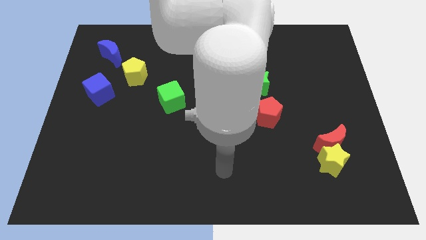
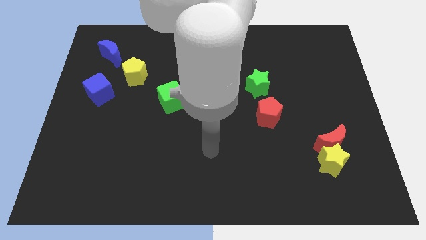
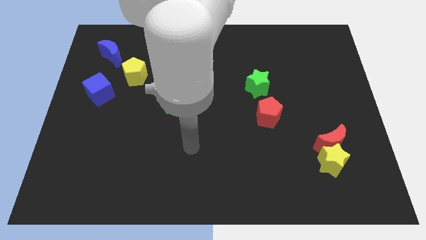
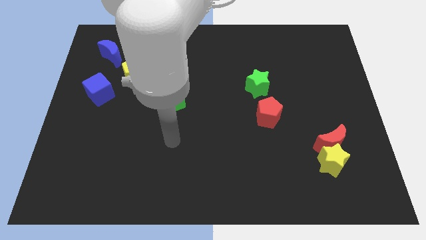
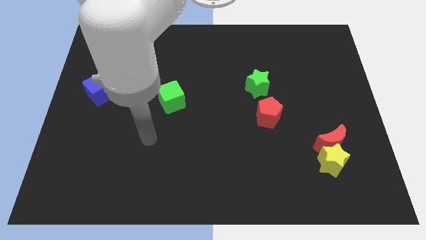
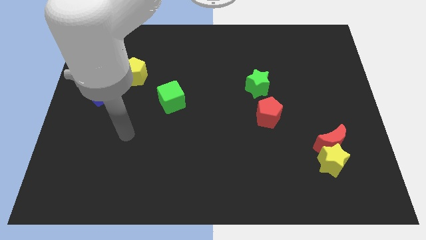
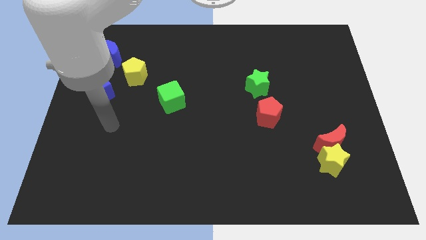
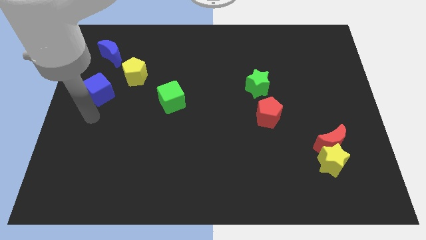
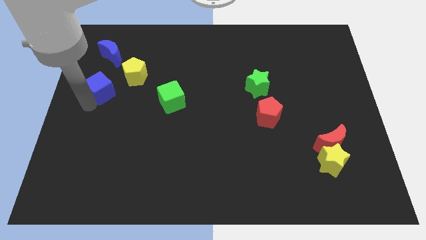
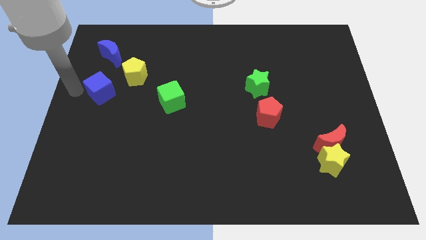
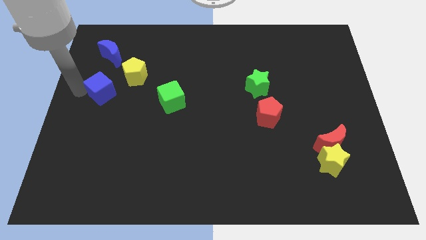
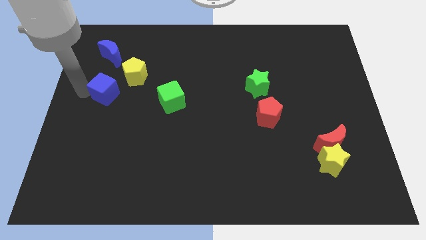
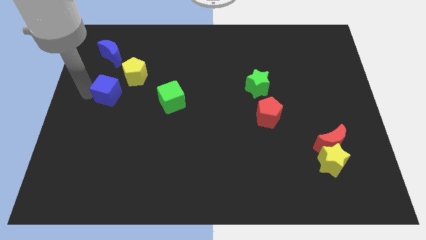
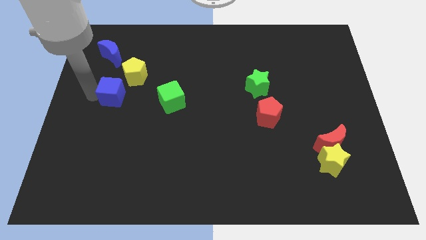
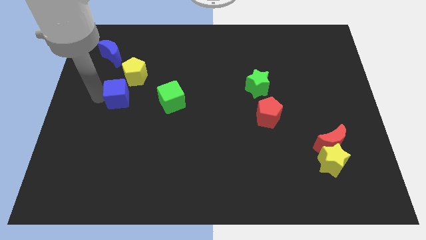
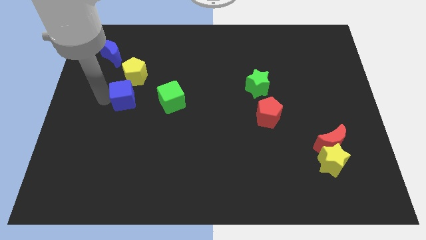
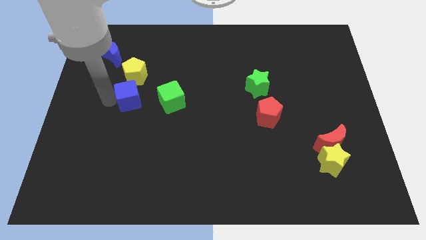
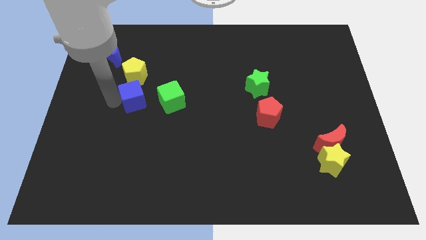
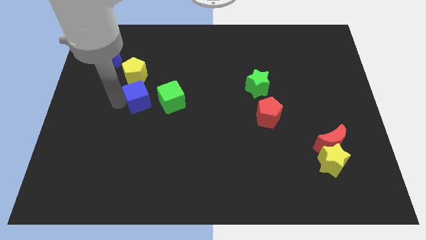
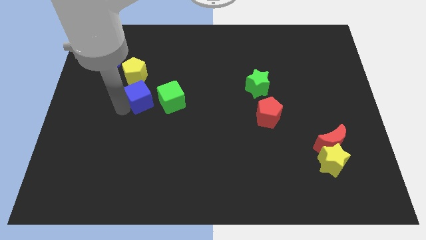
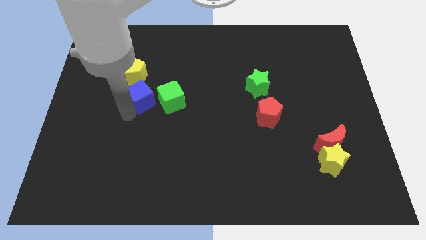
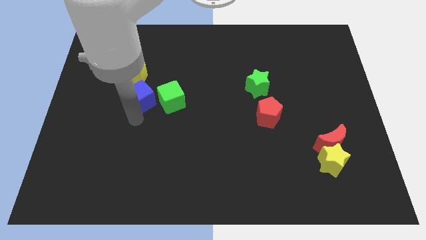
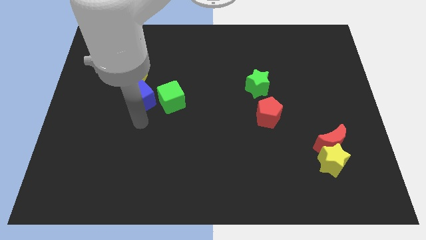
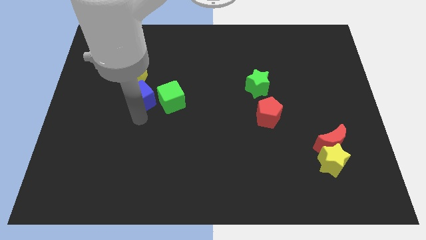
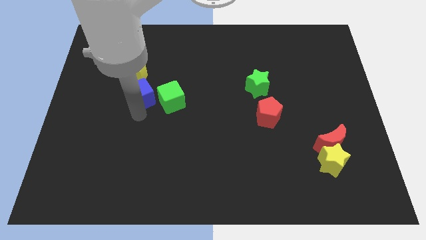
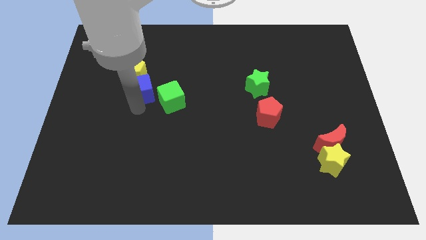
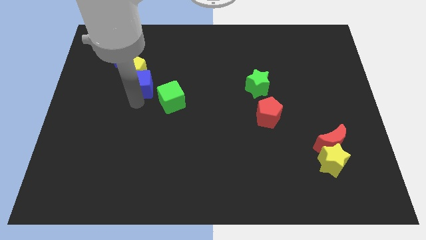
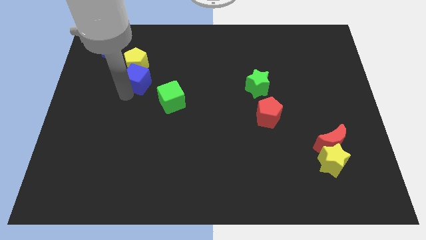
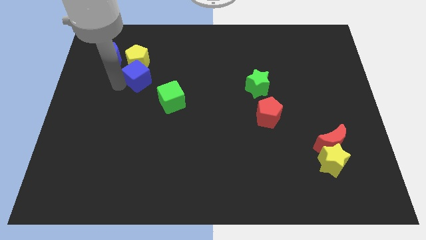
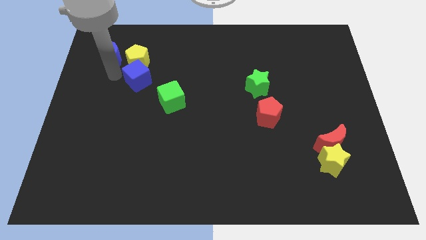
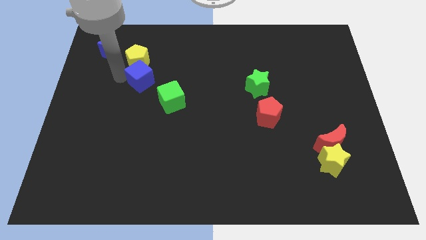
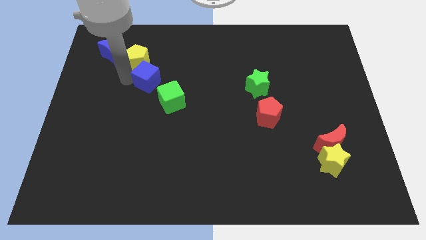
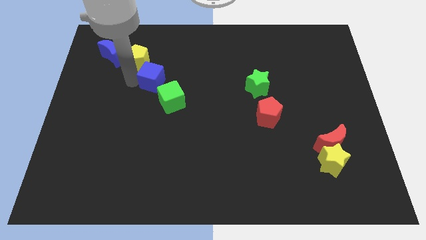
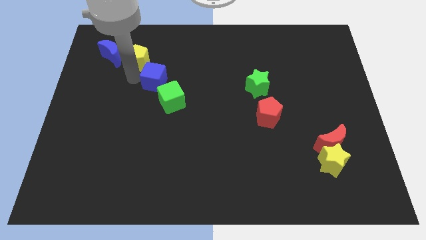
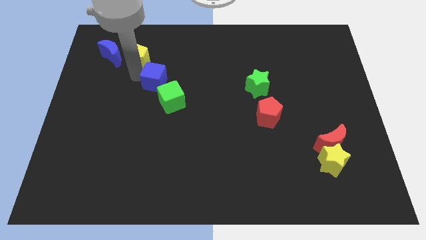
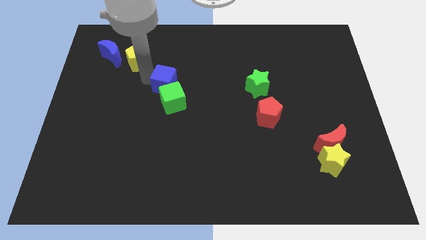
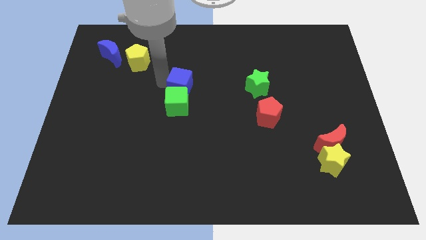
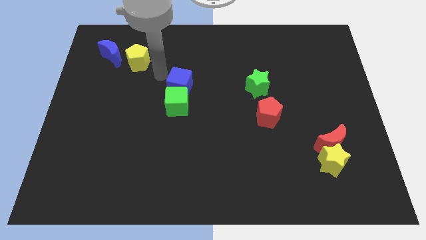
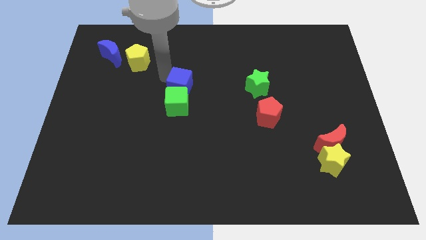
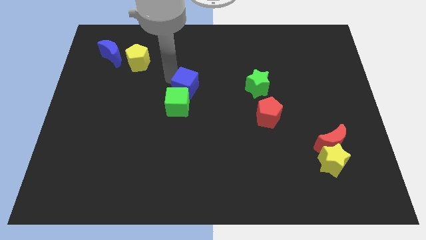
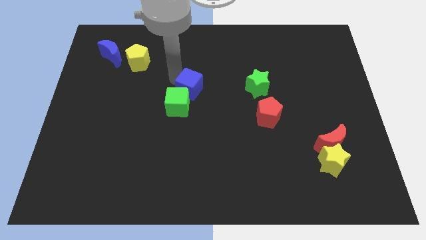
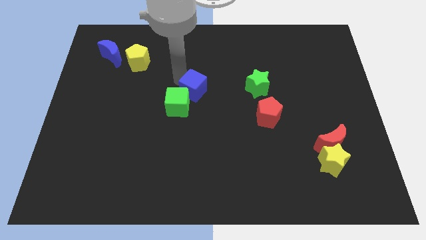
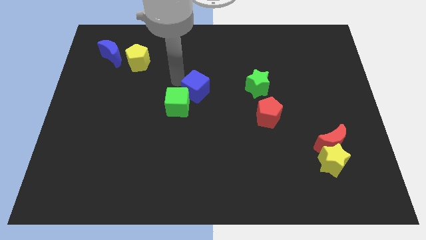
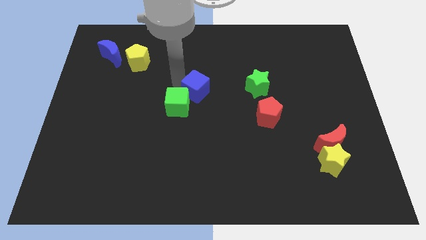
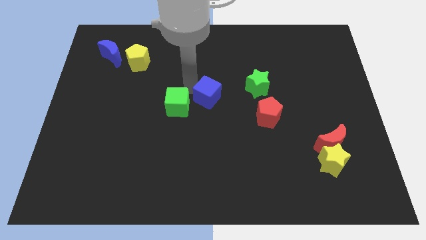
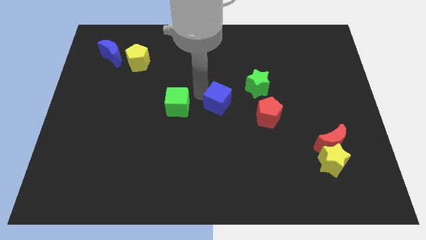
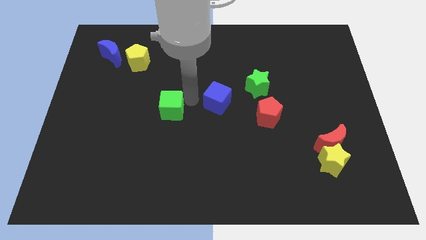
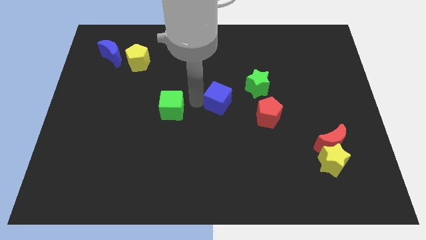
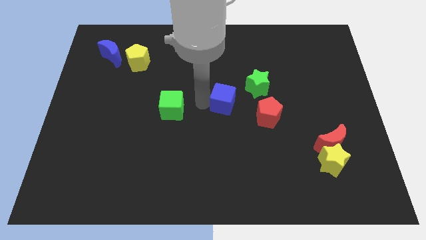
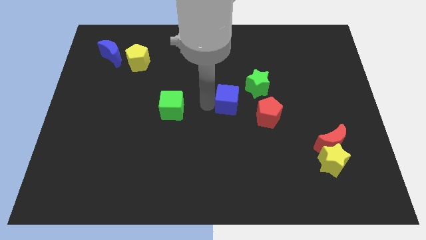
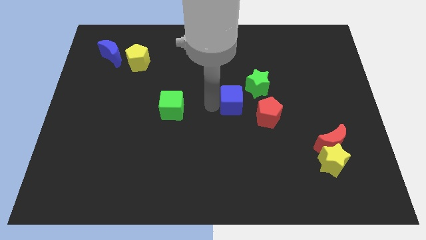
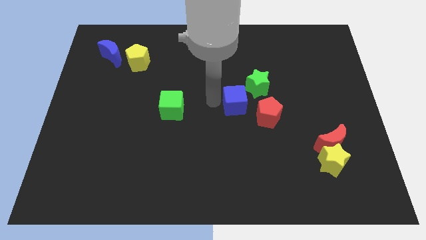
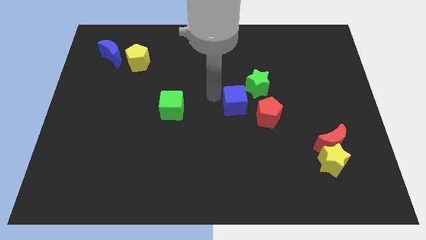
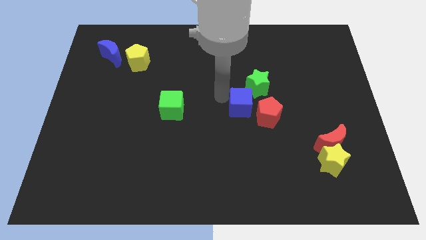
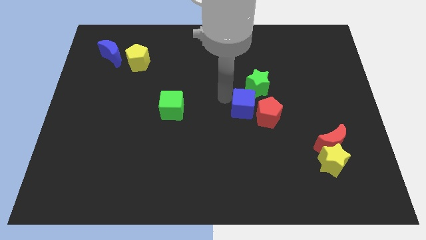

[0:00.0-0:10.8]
put the blue cube next to the red pentagon

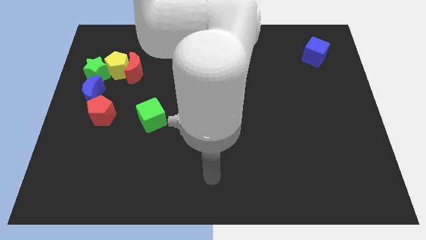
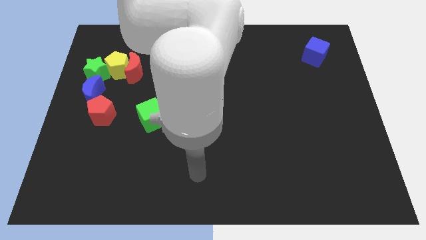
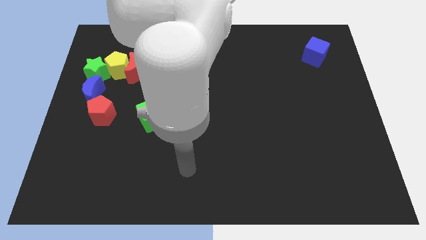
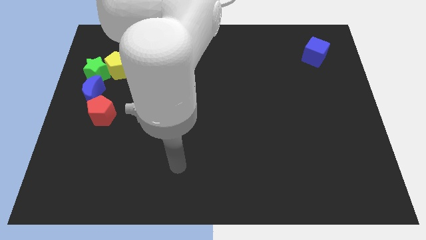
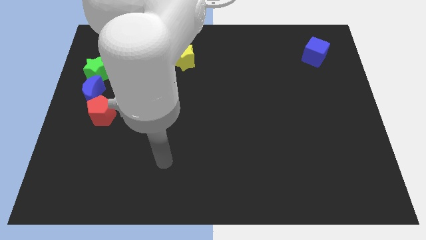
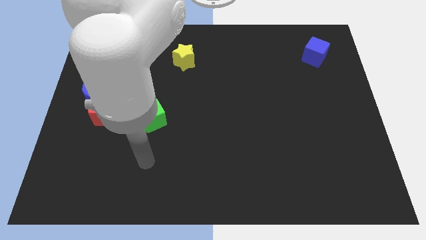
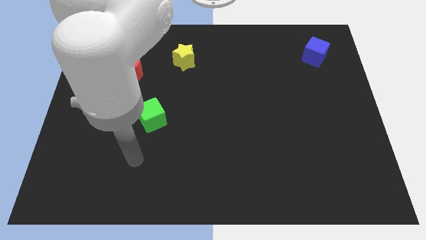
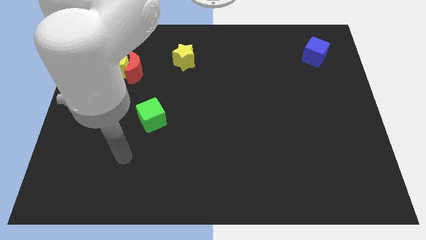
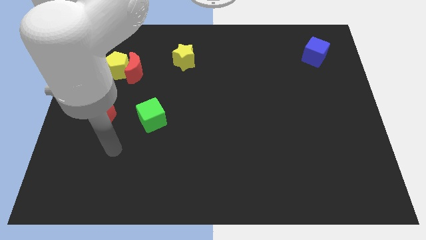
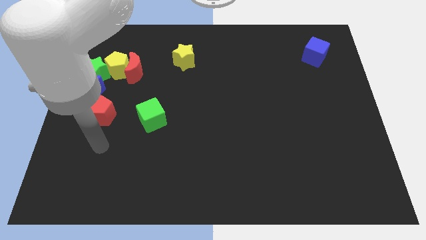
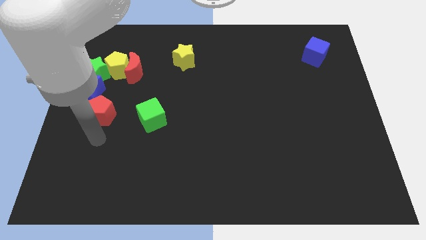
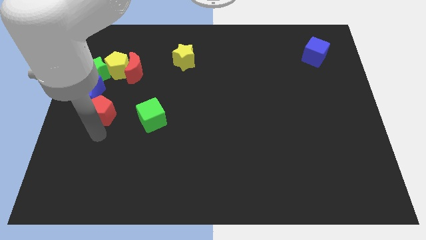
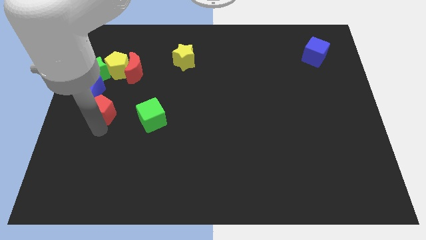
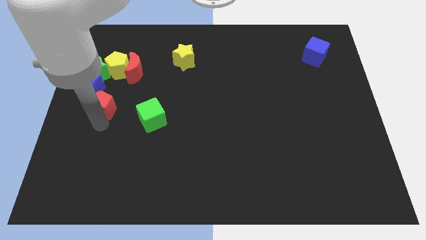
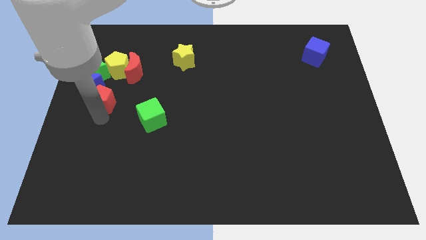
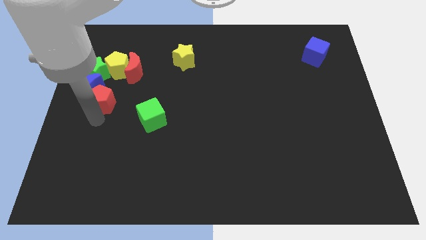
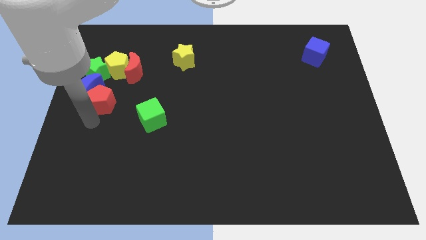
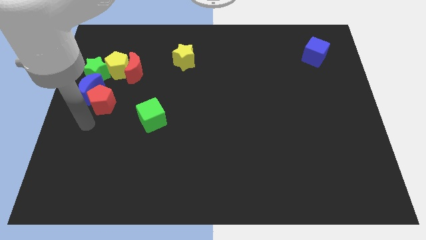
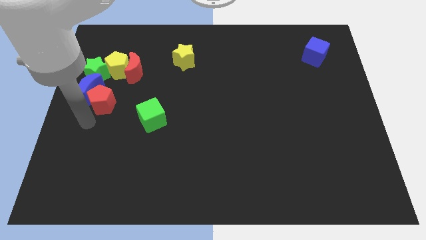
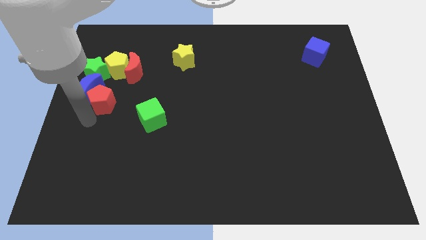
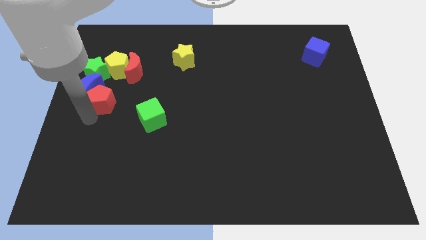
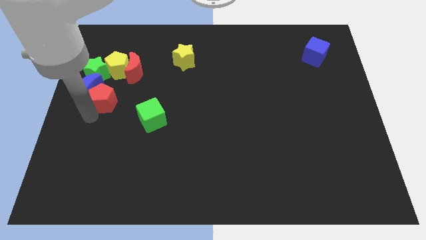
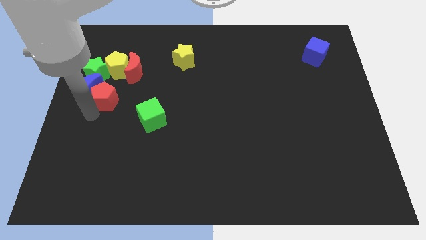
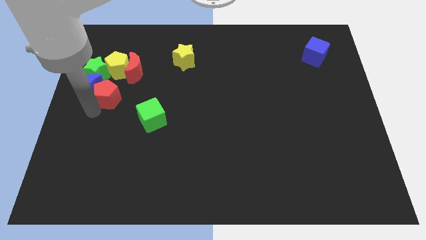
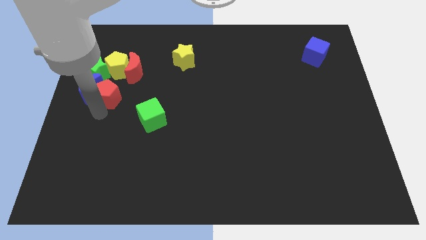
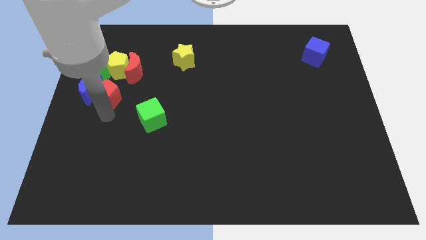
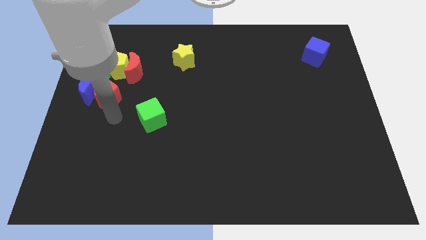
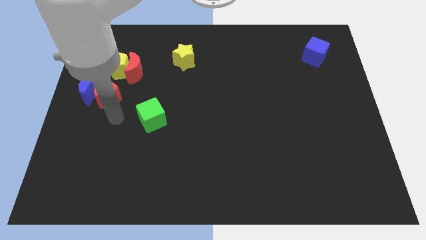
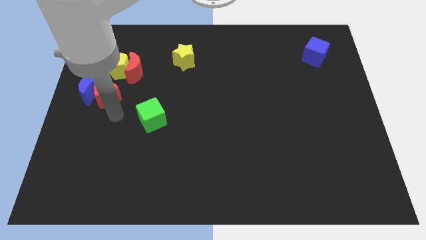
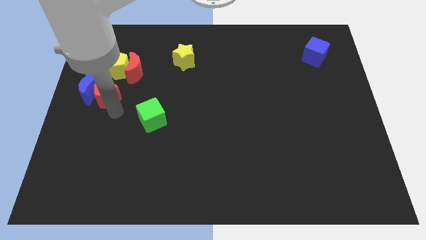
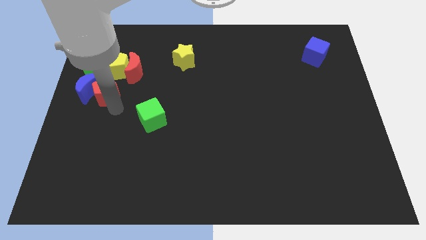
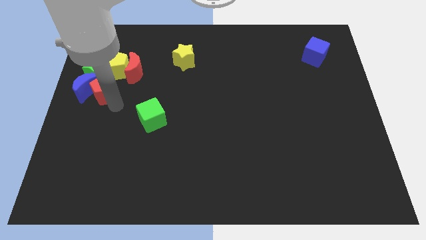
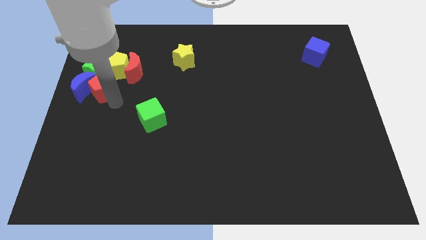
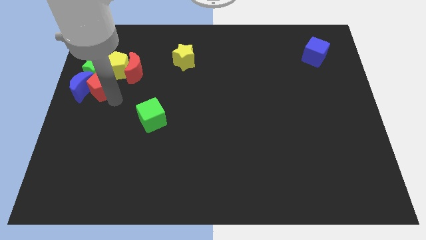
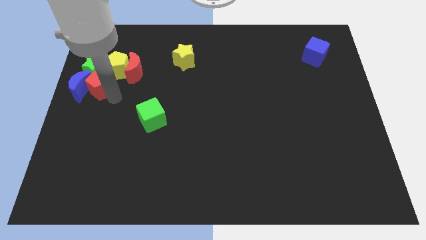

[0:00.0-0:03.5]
slide the red pentagon close to the green star
